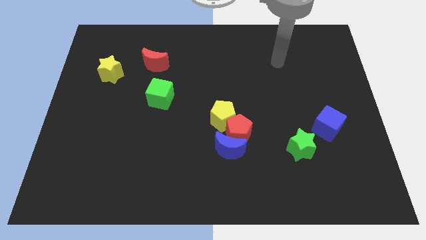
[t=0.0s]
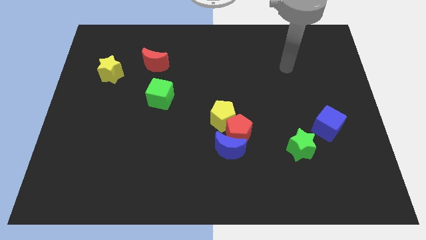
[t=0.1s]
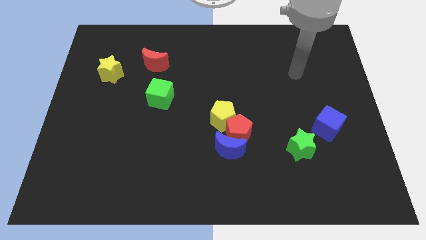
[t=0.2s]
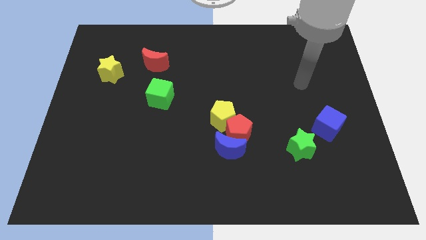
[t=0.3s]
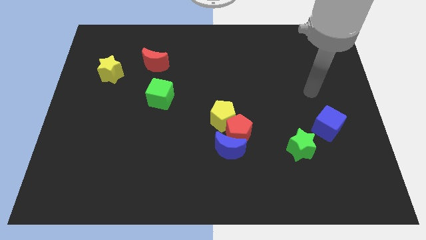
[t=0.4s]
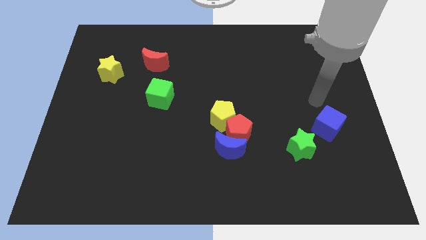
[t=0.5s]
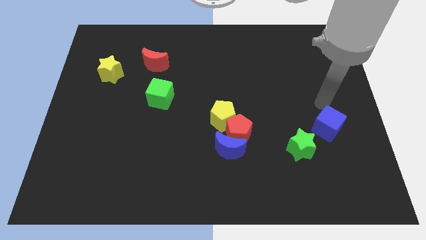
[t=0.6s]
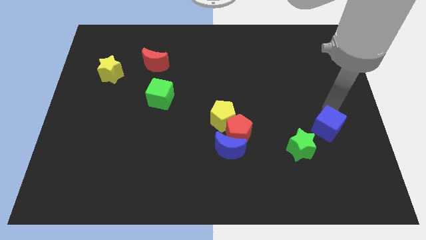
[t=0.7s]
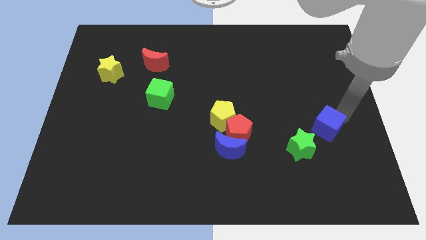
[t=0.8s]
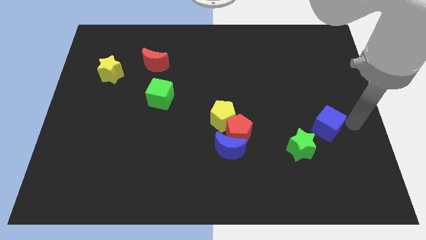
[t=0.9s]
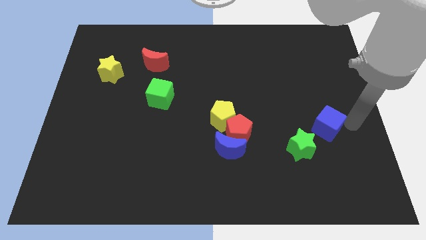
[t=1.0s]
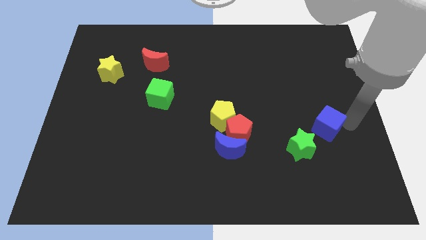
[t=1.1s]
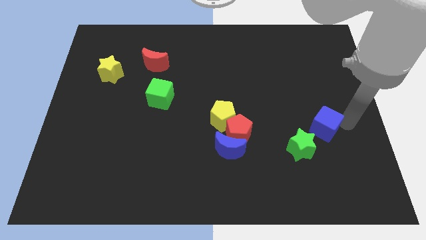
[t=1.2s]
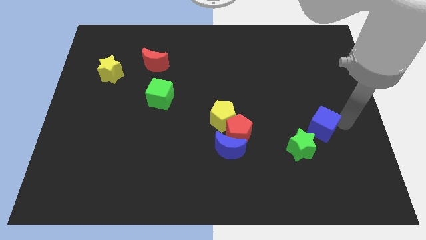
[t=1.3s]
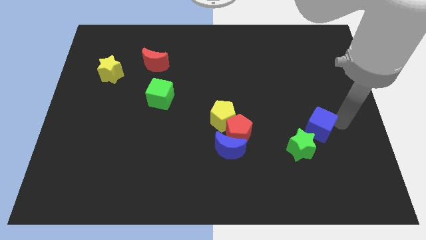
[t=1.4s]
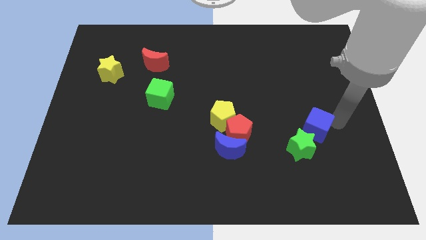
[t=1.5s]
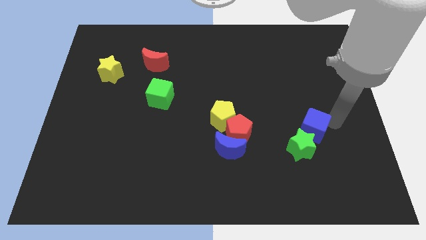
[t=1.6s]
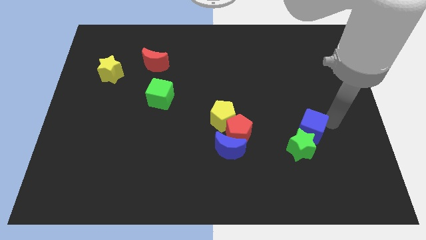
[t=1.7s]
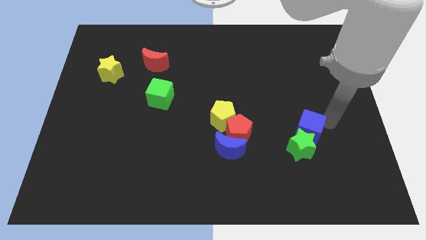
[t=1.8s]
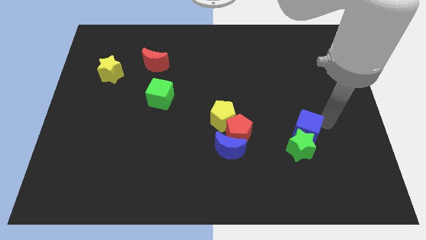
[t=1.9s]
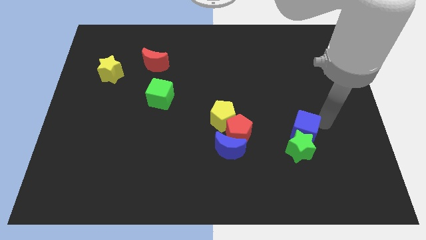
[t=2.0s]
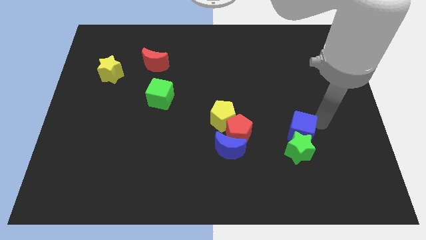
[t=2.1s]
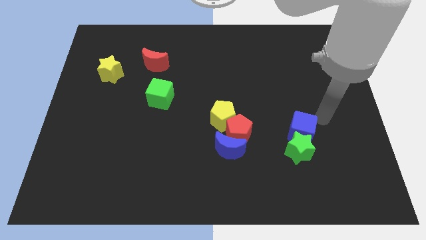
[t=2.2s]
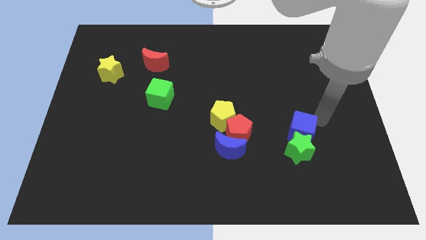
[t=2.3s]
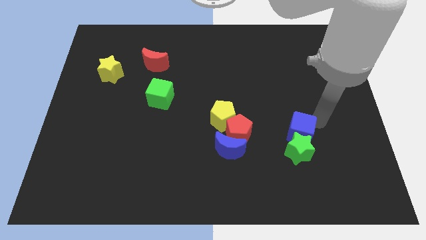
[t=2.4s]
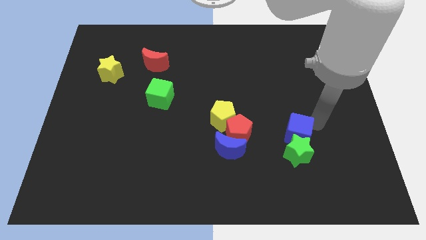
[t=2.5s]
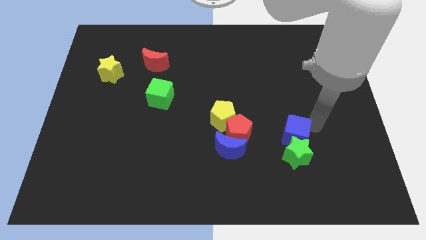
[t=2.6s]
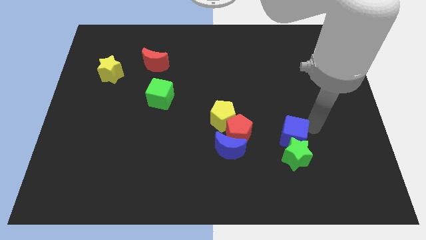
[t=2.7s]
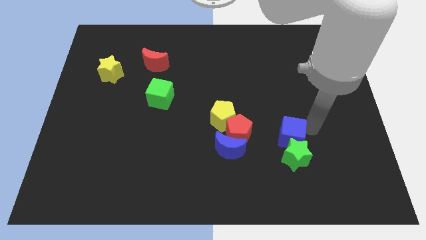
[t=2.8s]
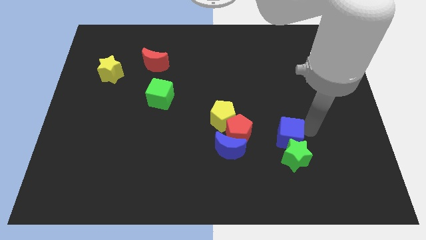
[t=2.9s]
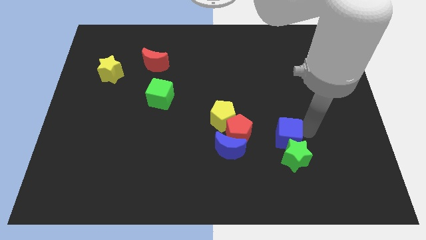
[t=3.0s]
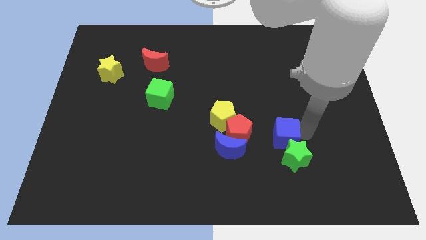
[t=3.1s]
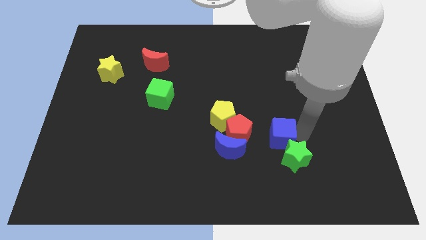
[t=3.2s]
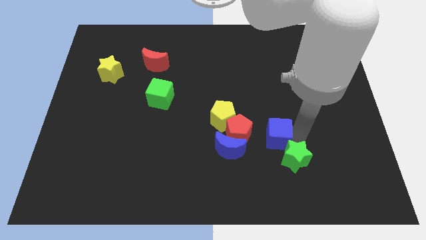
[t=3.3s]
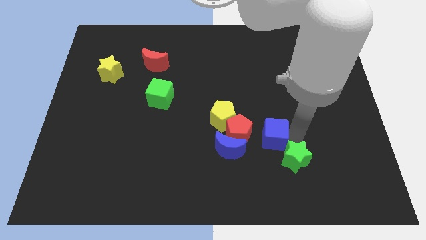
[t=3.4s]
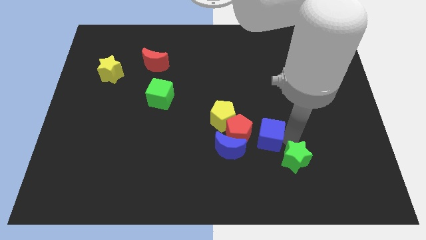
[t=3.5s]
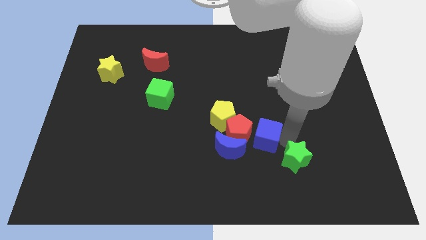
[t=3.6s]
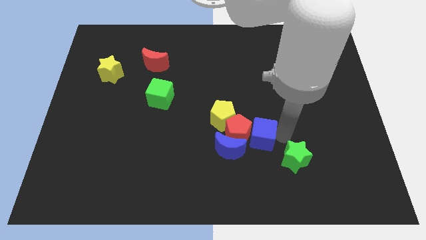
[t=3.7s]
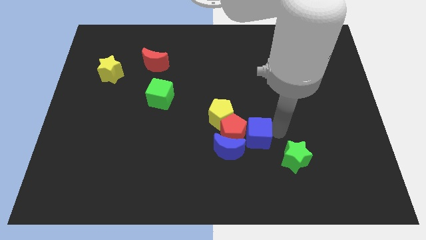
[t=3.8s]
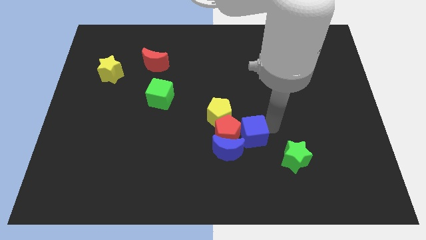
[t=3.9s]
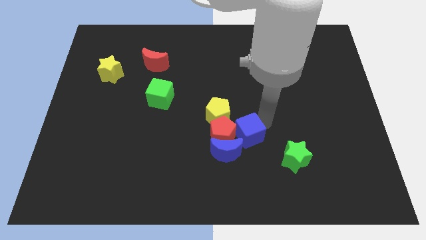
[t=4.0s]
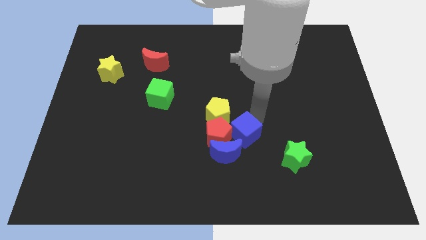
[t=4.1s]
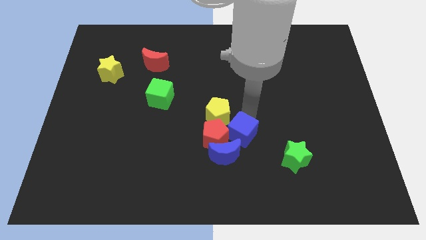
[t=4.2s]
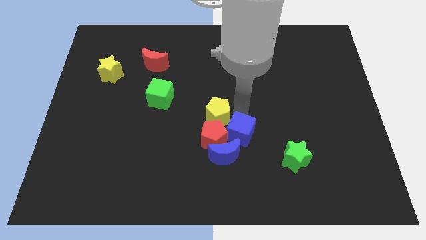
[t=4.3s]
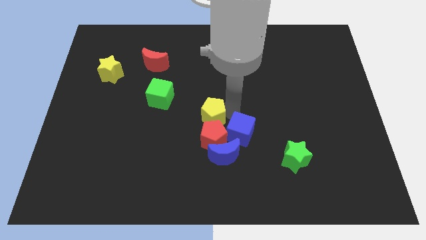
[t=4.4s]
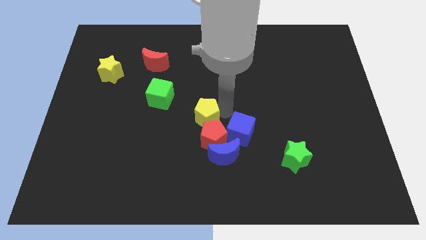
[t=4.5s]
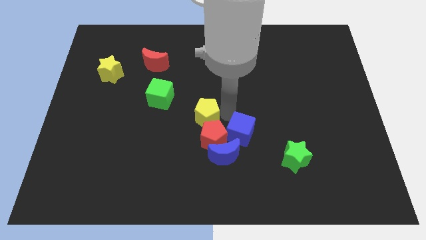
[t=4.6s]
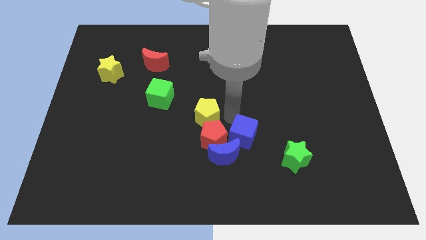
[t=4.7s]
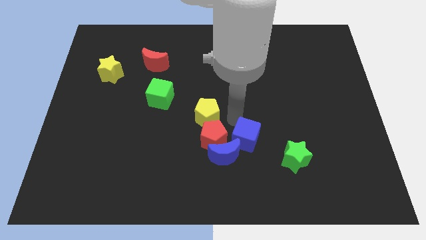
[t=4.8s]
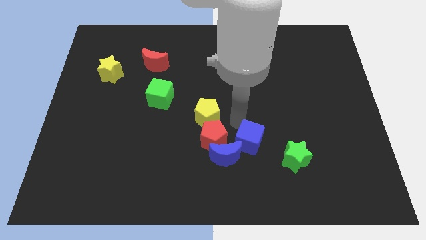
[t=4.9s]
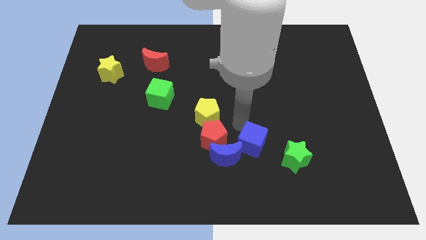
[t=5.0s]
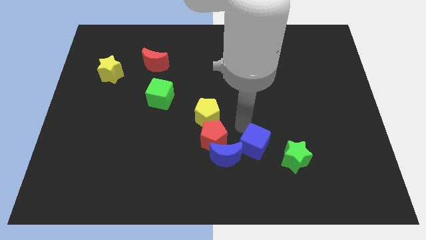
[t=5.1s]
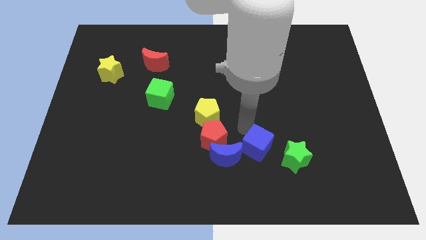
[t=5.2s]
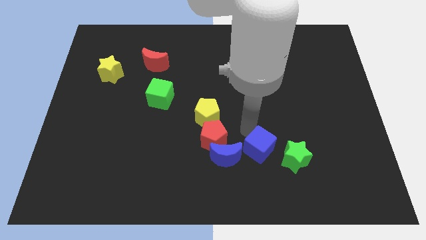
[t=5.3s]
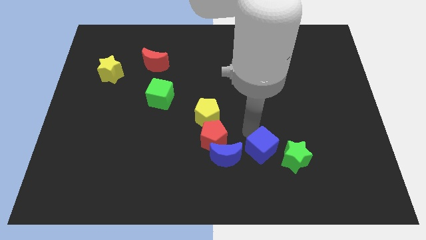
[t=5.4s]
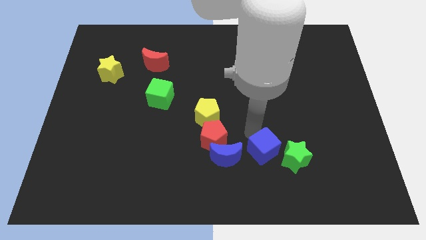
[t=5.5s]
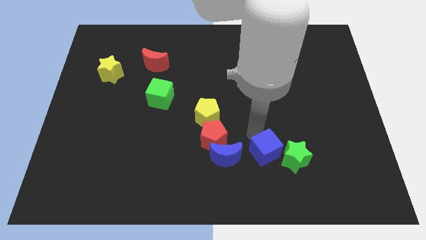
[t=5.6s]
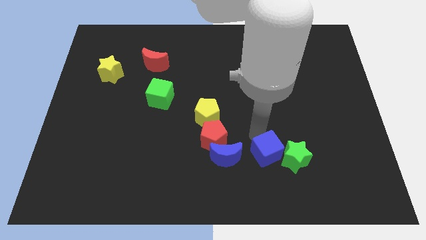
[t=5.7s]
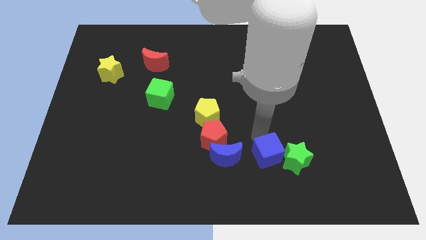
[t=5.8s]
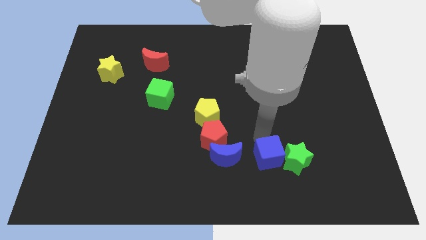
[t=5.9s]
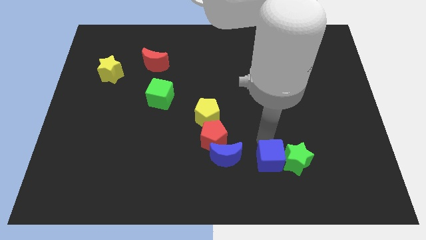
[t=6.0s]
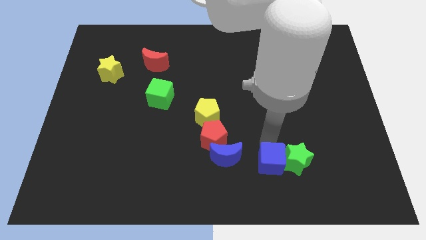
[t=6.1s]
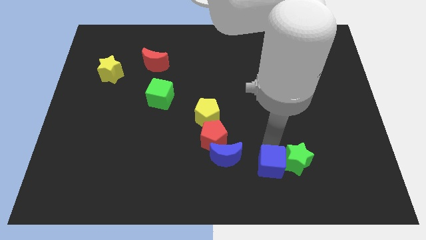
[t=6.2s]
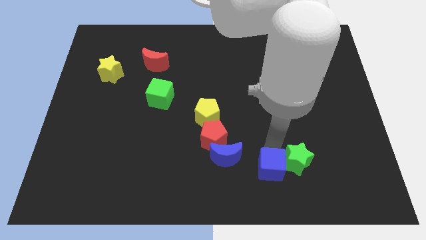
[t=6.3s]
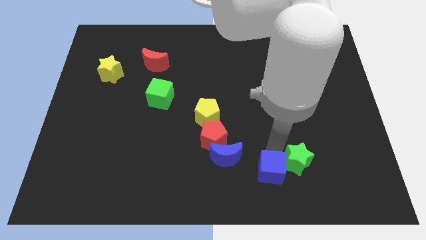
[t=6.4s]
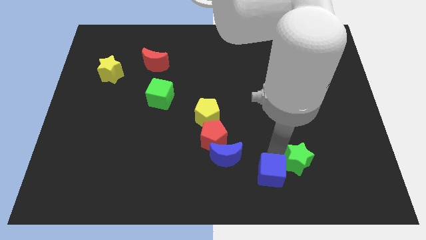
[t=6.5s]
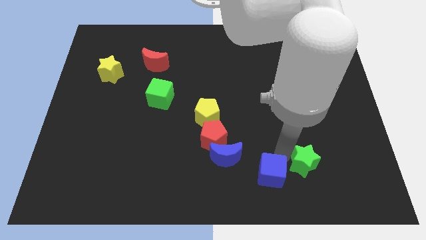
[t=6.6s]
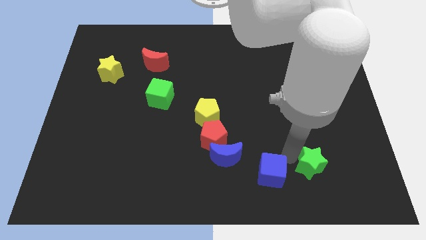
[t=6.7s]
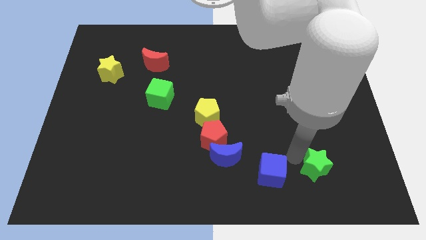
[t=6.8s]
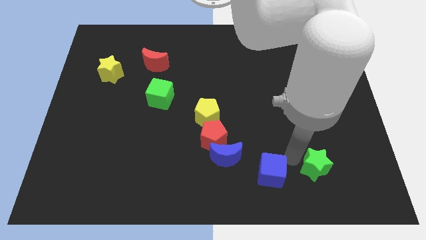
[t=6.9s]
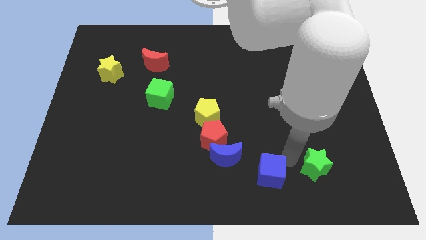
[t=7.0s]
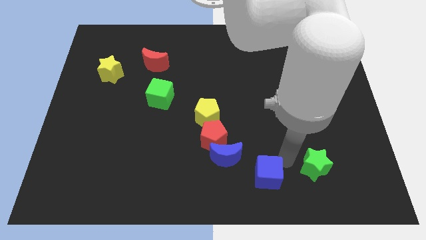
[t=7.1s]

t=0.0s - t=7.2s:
move the blue cube to the bottom

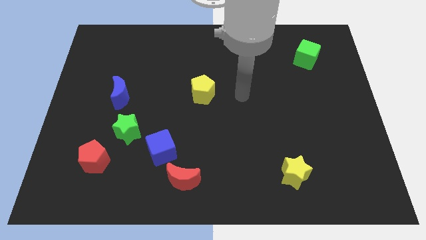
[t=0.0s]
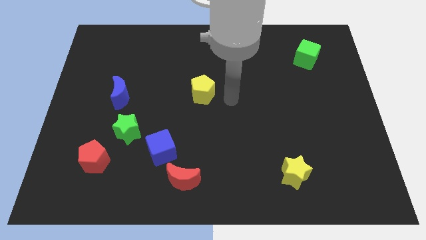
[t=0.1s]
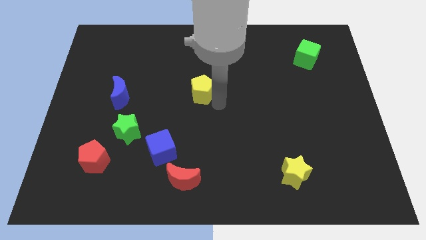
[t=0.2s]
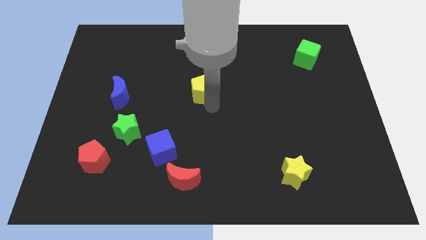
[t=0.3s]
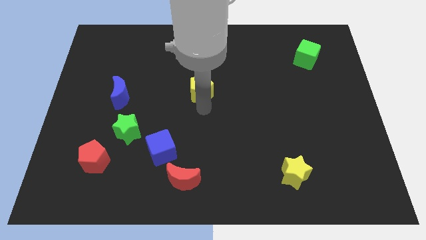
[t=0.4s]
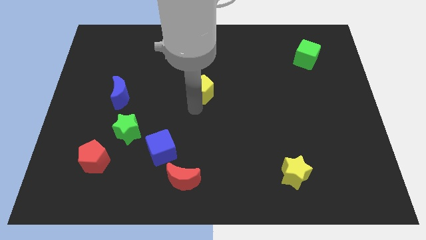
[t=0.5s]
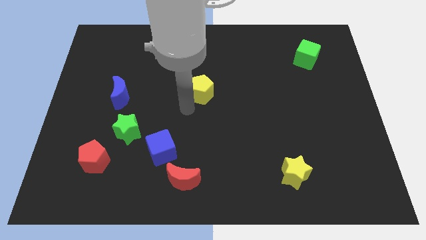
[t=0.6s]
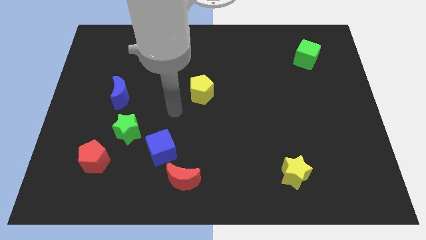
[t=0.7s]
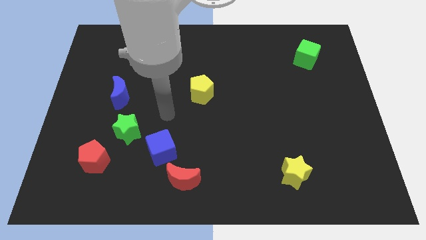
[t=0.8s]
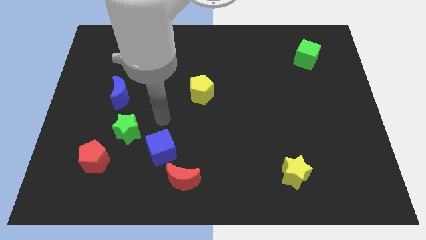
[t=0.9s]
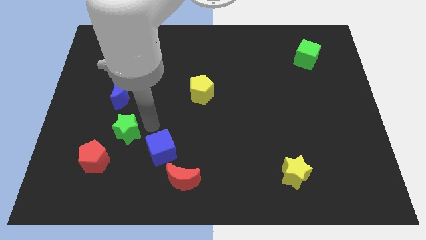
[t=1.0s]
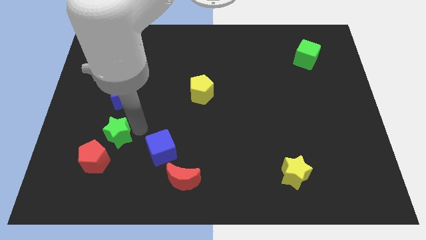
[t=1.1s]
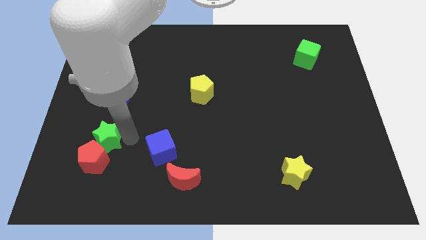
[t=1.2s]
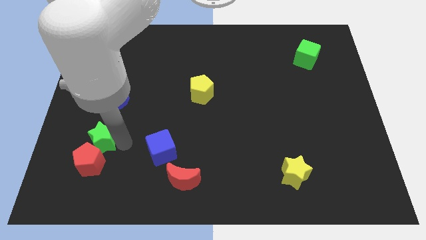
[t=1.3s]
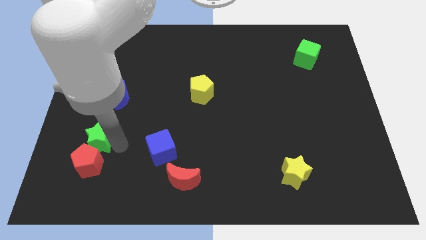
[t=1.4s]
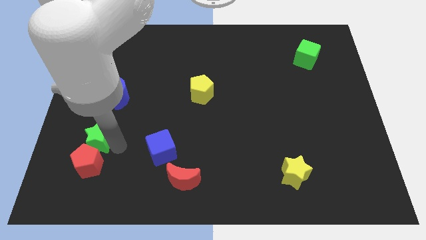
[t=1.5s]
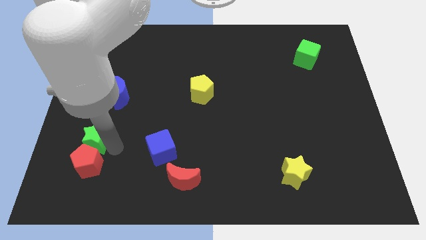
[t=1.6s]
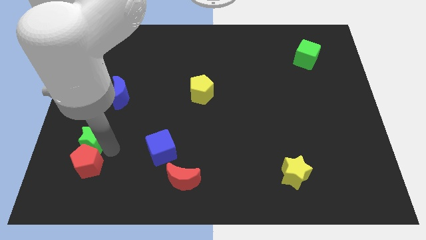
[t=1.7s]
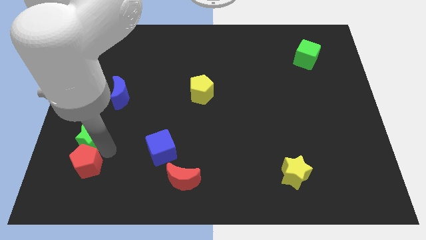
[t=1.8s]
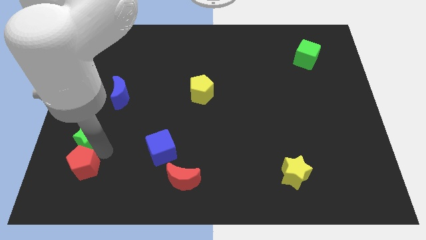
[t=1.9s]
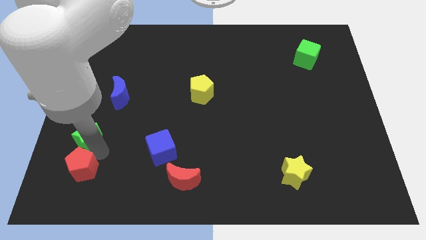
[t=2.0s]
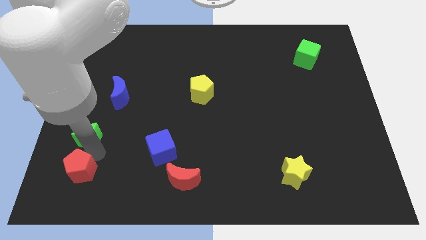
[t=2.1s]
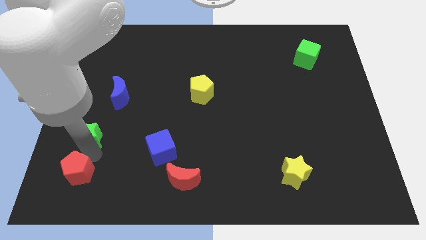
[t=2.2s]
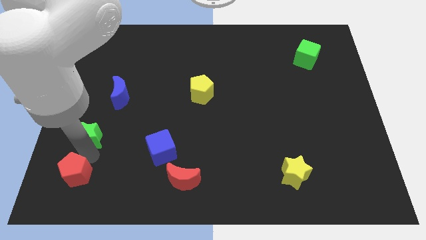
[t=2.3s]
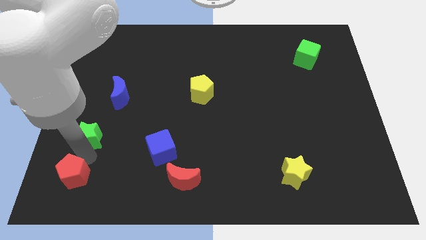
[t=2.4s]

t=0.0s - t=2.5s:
move the red pentagon to the bottom left corner
